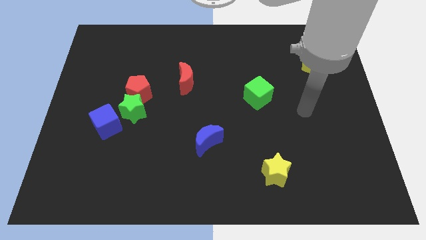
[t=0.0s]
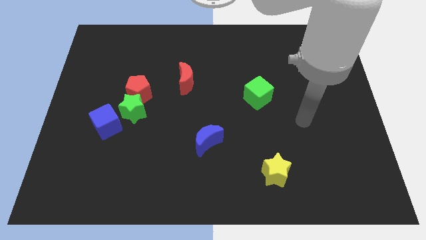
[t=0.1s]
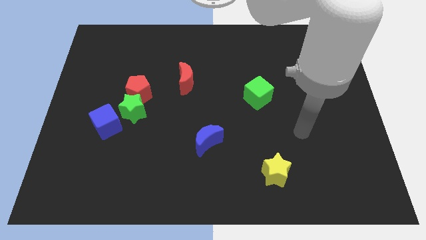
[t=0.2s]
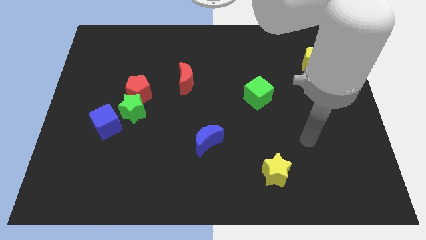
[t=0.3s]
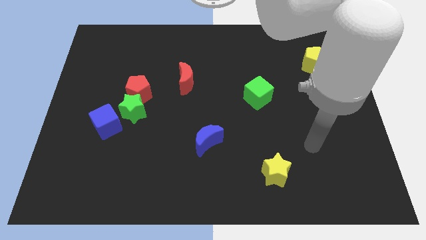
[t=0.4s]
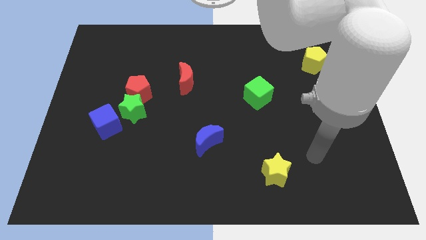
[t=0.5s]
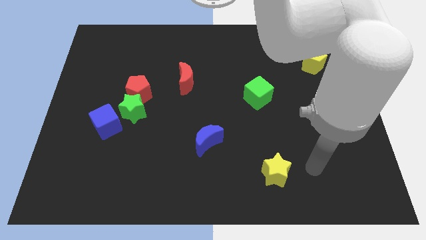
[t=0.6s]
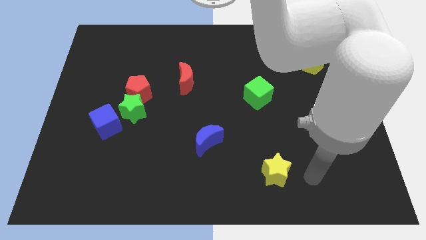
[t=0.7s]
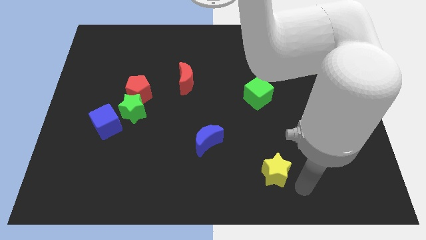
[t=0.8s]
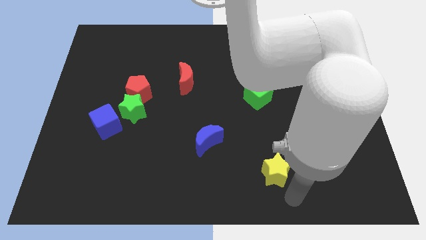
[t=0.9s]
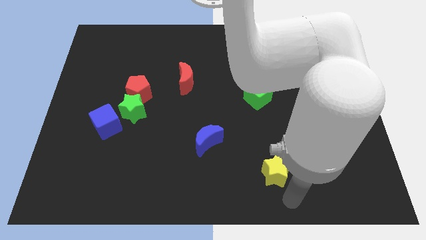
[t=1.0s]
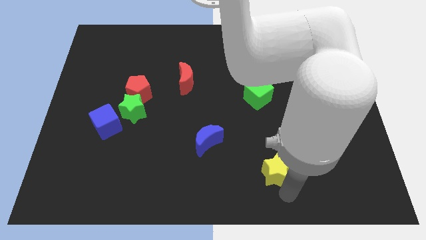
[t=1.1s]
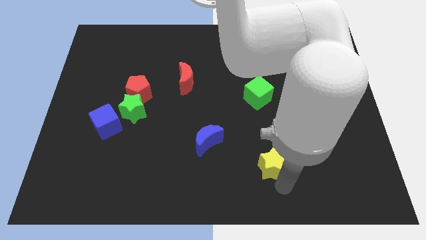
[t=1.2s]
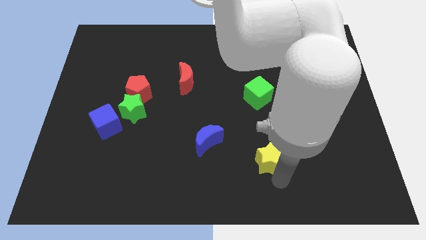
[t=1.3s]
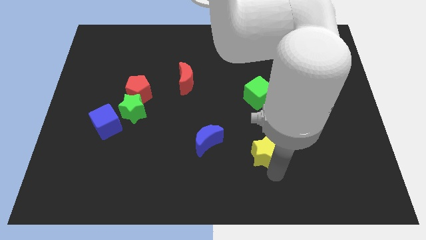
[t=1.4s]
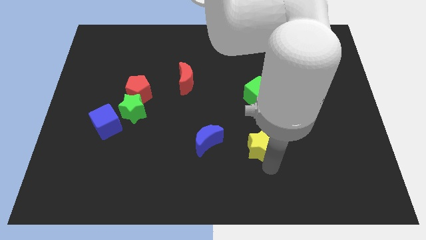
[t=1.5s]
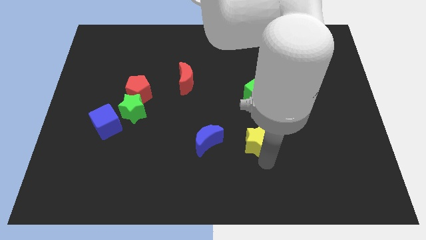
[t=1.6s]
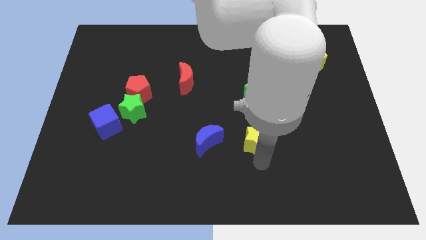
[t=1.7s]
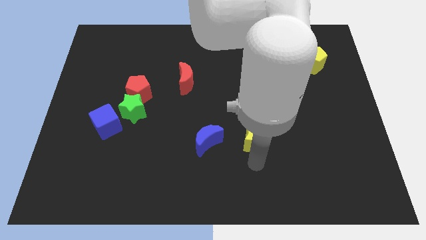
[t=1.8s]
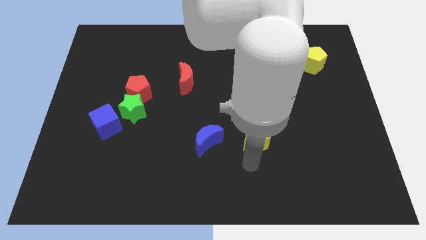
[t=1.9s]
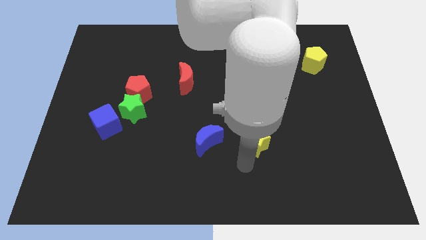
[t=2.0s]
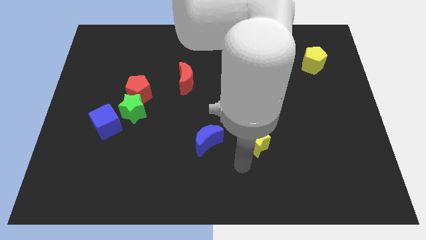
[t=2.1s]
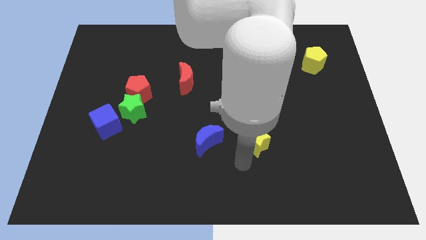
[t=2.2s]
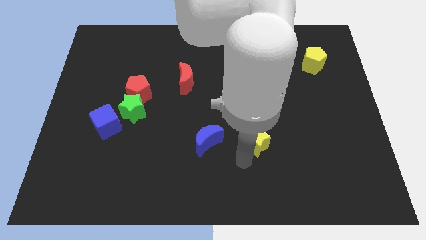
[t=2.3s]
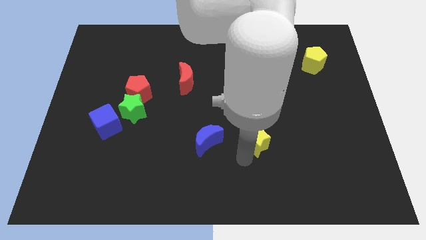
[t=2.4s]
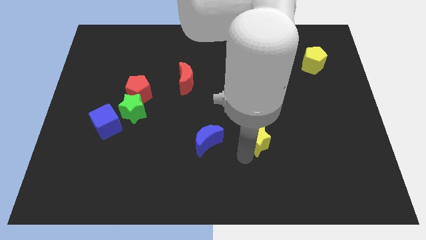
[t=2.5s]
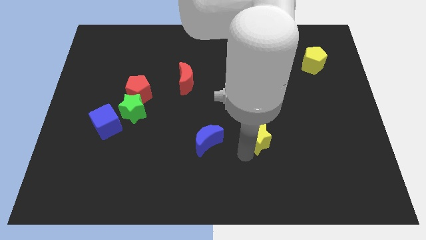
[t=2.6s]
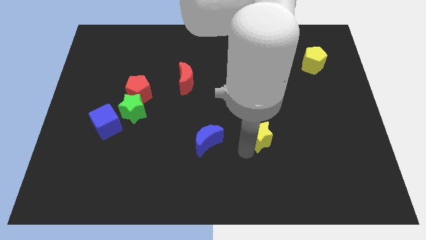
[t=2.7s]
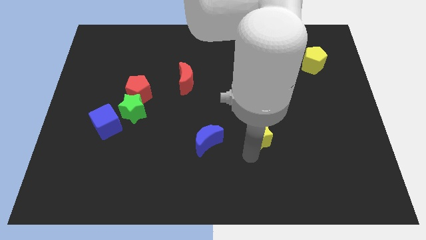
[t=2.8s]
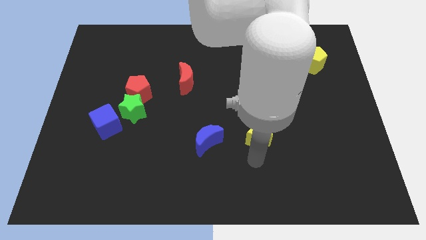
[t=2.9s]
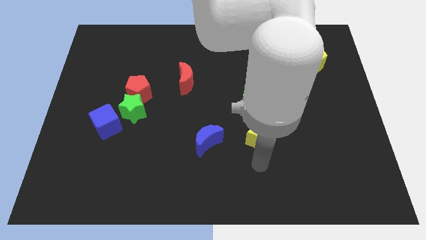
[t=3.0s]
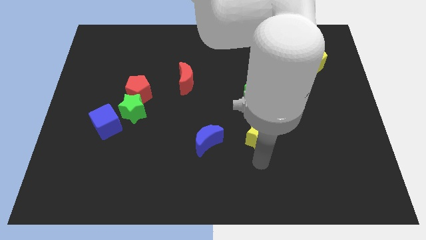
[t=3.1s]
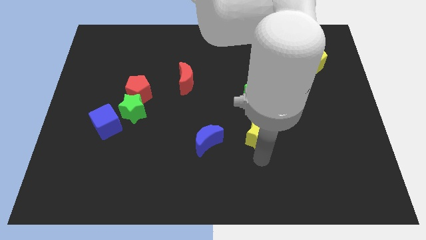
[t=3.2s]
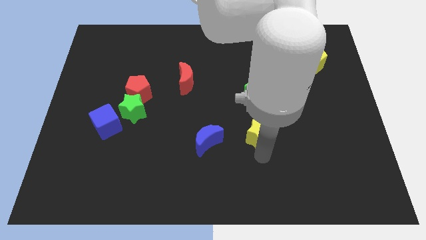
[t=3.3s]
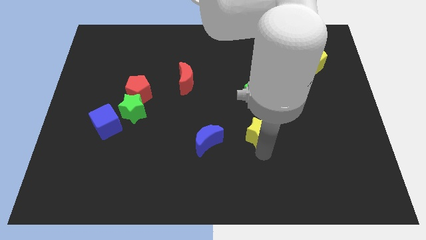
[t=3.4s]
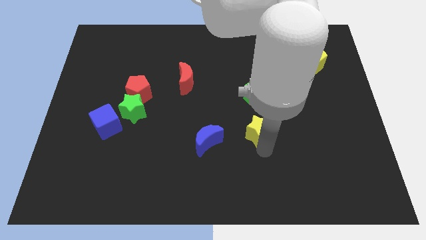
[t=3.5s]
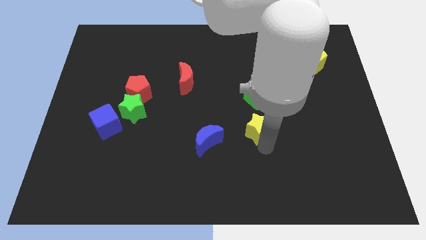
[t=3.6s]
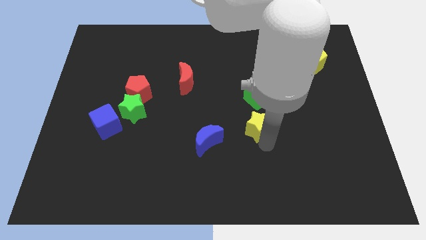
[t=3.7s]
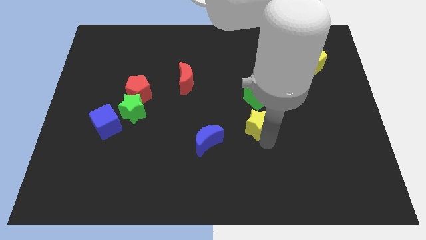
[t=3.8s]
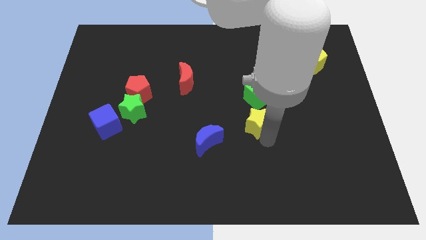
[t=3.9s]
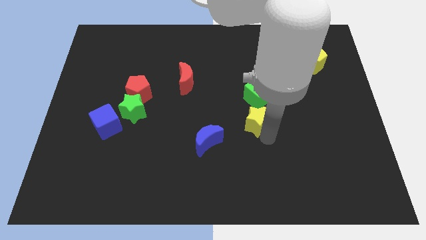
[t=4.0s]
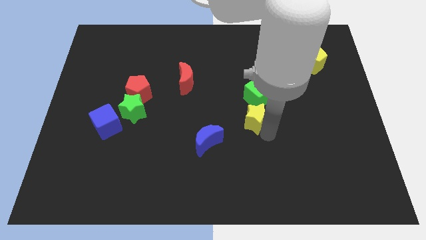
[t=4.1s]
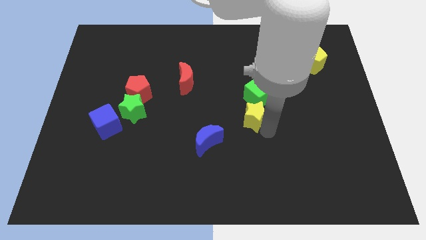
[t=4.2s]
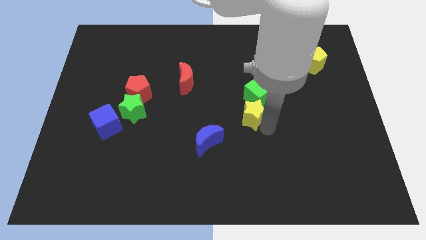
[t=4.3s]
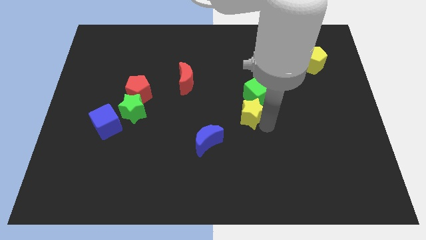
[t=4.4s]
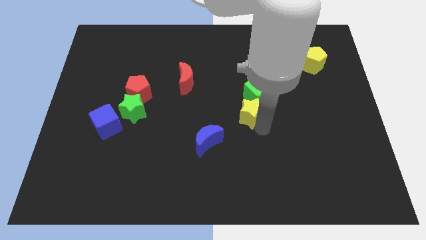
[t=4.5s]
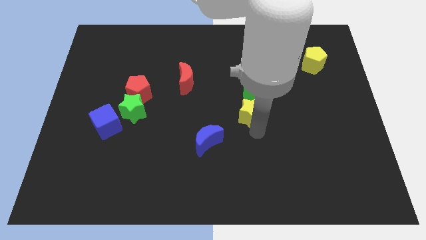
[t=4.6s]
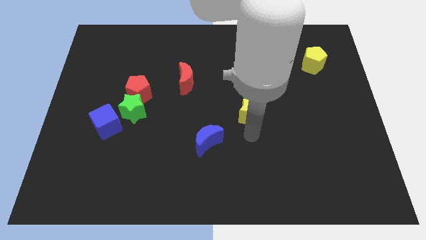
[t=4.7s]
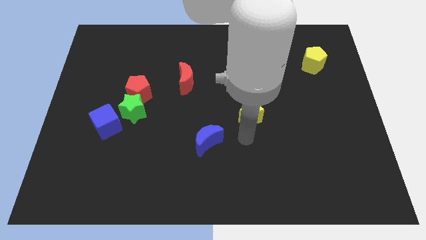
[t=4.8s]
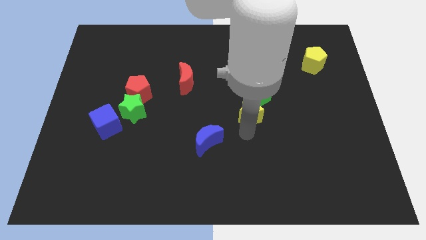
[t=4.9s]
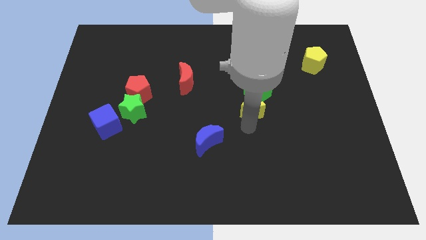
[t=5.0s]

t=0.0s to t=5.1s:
put the yellow star towards the green cube

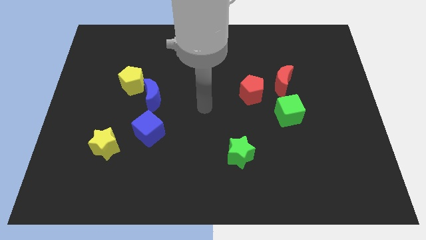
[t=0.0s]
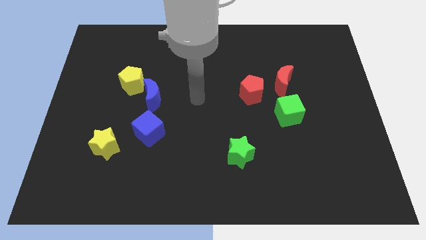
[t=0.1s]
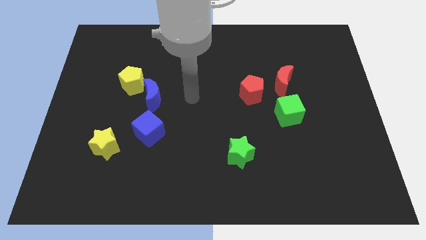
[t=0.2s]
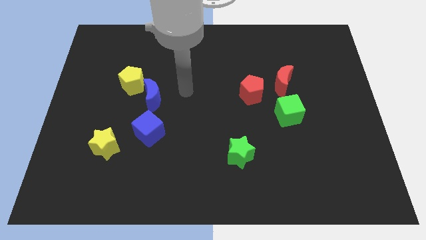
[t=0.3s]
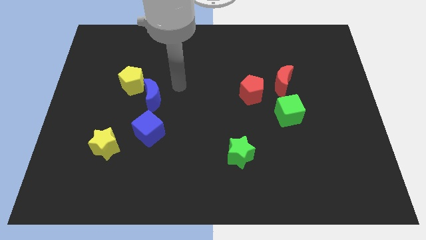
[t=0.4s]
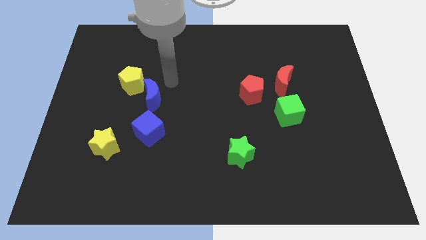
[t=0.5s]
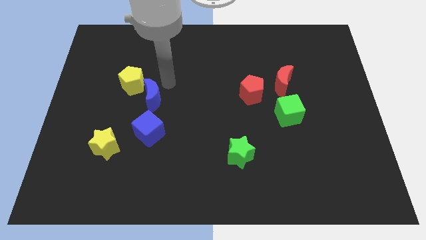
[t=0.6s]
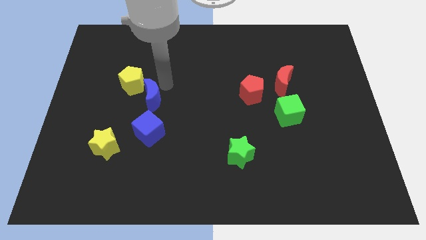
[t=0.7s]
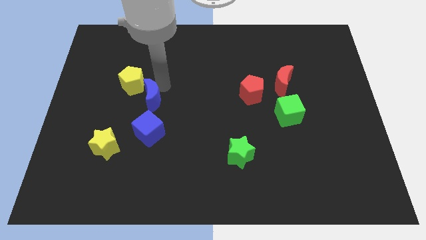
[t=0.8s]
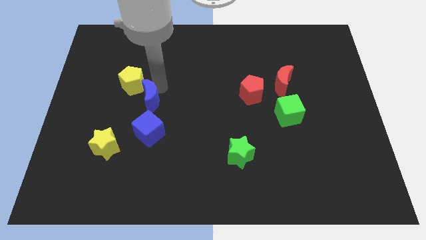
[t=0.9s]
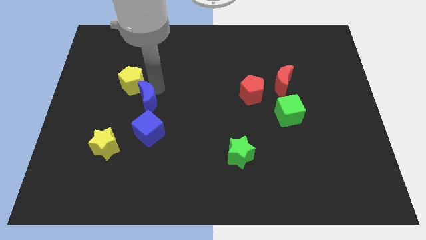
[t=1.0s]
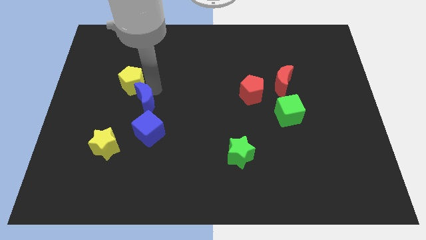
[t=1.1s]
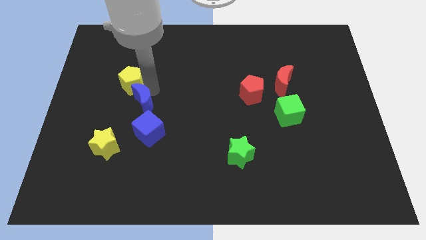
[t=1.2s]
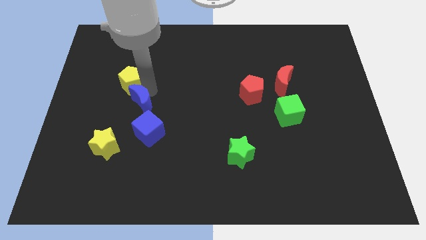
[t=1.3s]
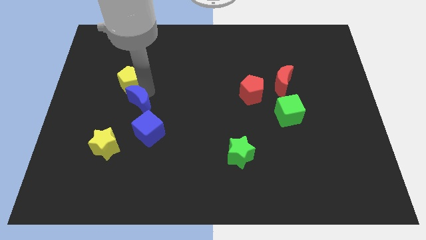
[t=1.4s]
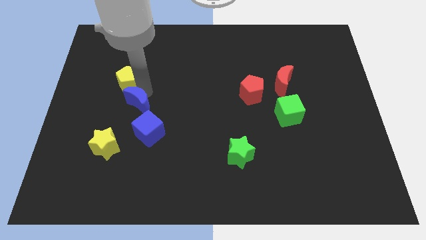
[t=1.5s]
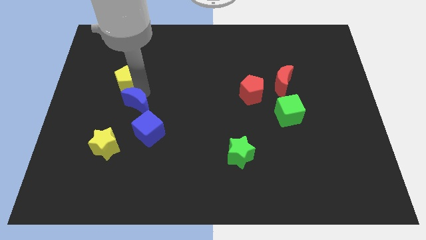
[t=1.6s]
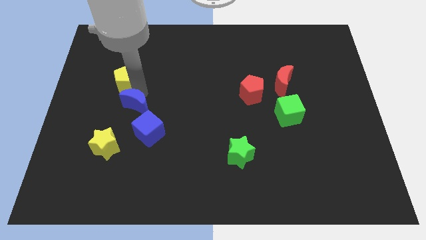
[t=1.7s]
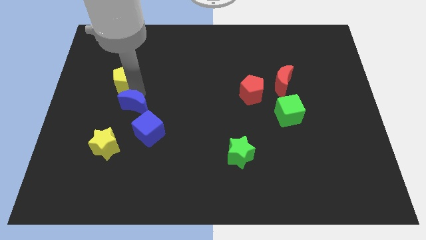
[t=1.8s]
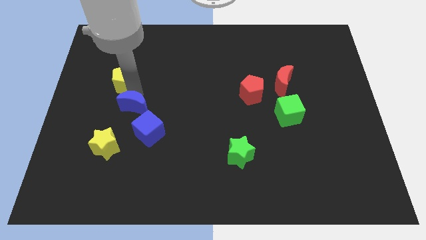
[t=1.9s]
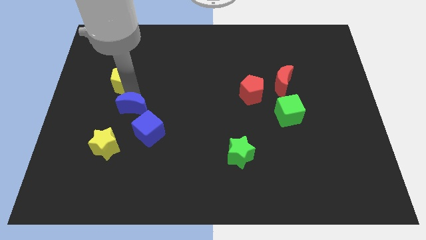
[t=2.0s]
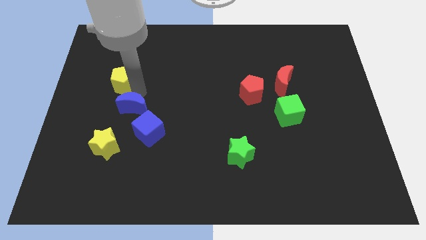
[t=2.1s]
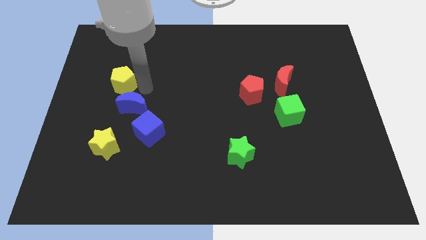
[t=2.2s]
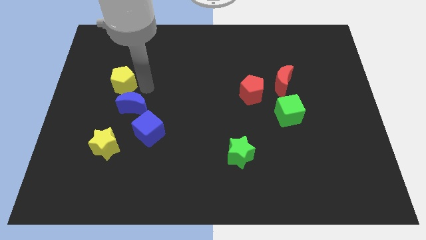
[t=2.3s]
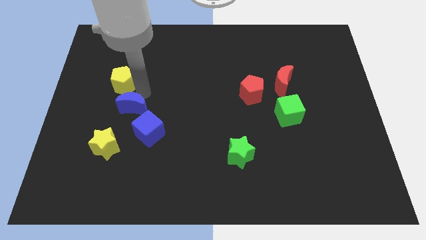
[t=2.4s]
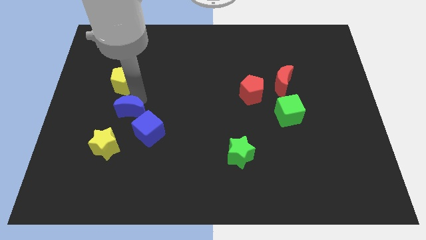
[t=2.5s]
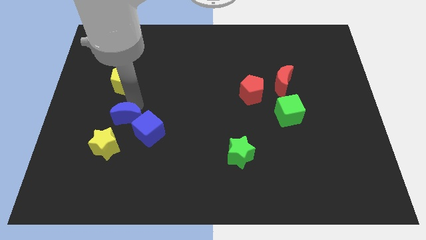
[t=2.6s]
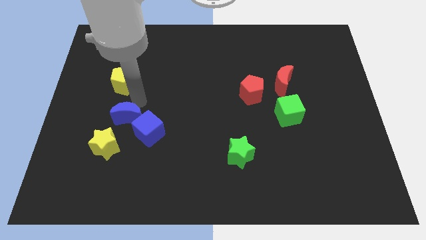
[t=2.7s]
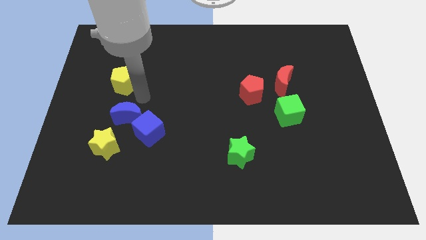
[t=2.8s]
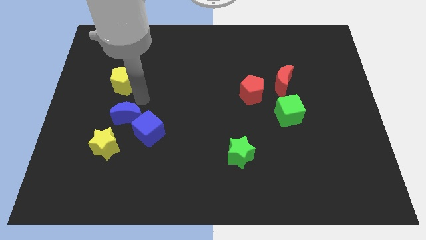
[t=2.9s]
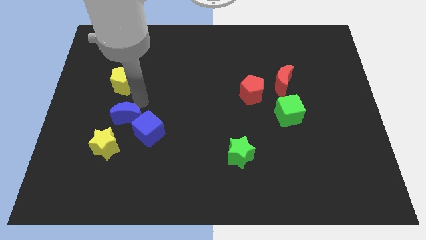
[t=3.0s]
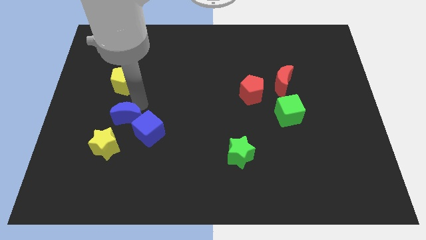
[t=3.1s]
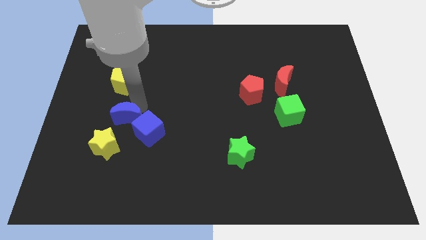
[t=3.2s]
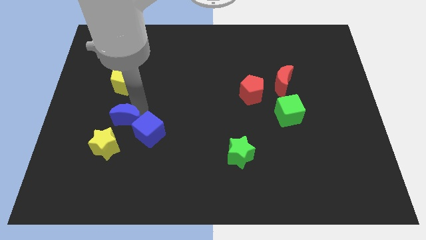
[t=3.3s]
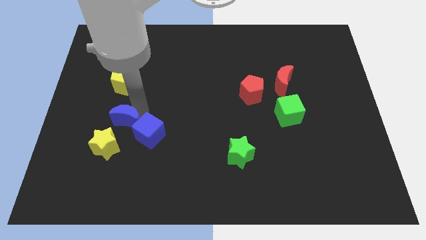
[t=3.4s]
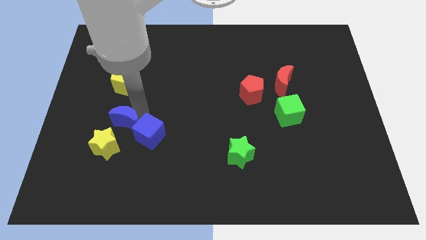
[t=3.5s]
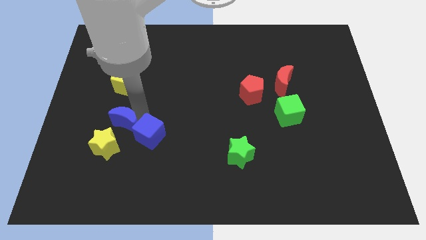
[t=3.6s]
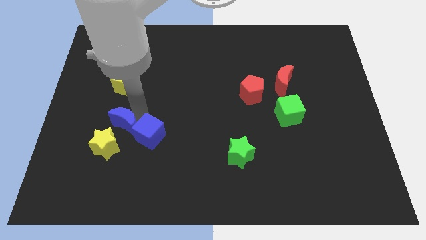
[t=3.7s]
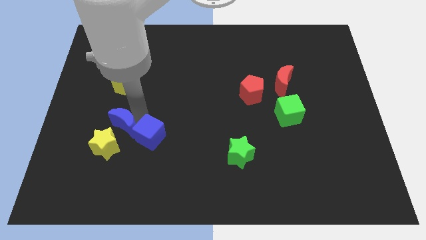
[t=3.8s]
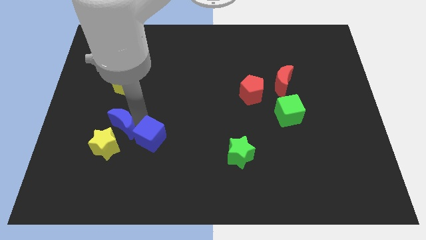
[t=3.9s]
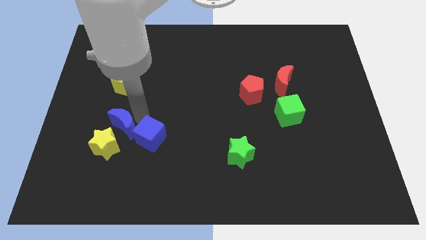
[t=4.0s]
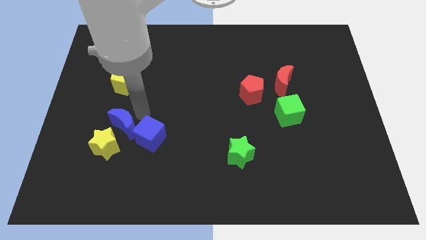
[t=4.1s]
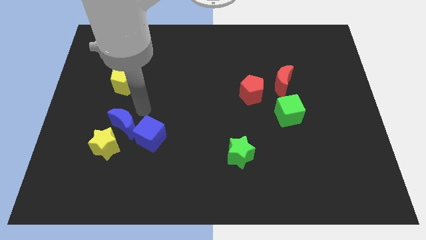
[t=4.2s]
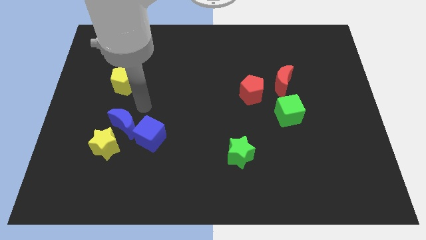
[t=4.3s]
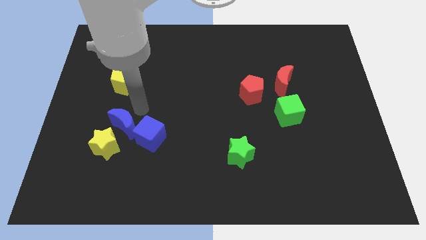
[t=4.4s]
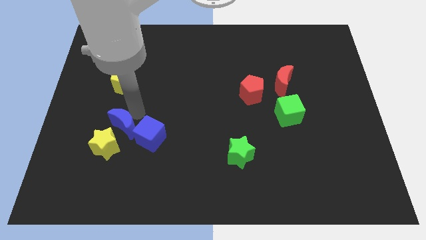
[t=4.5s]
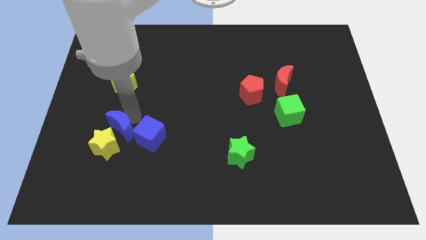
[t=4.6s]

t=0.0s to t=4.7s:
put the blue moon next to the yellow star
